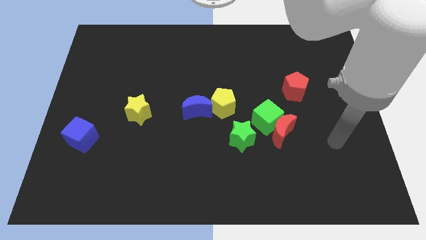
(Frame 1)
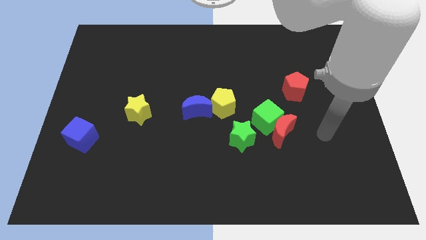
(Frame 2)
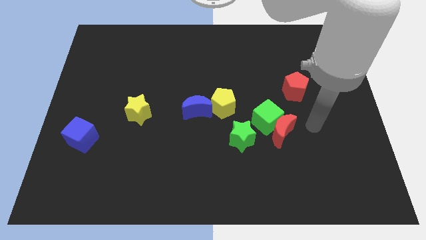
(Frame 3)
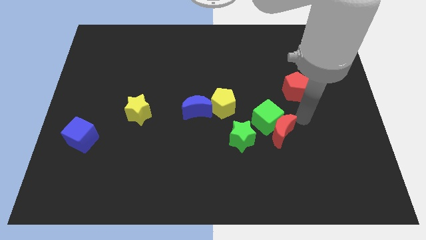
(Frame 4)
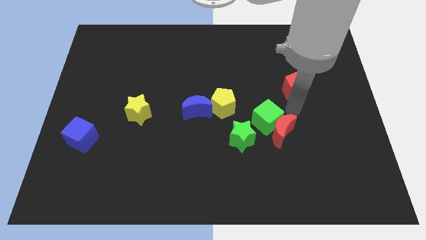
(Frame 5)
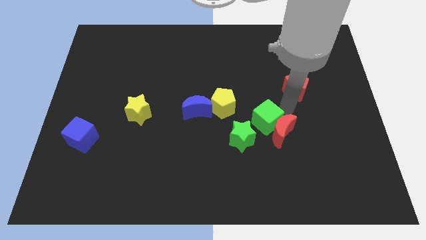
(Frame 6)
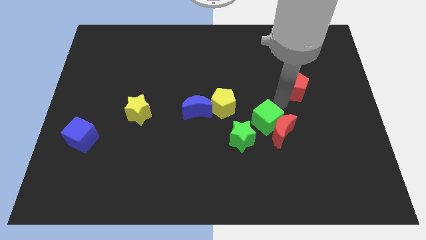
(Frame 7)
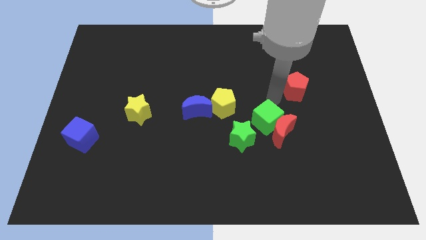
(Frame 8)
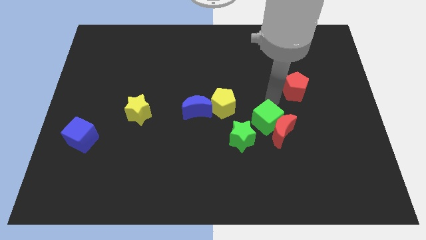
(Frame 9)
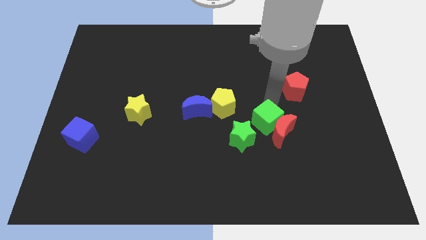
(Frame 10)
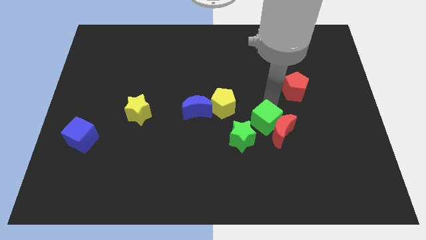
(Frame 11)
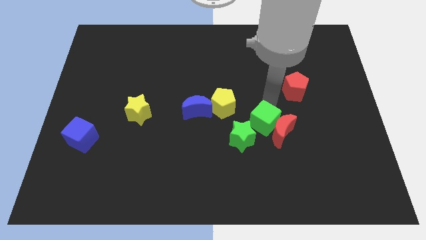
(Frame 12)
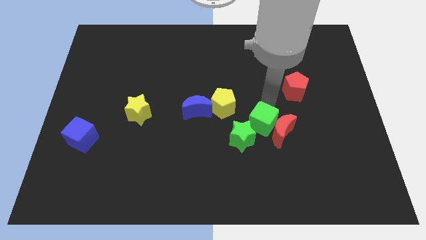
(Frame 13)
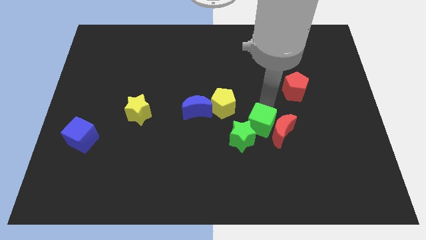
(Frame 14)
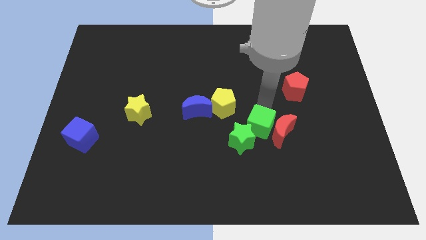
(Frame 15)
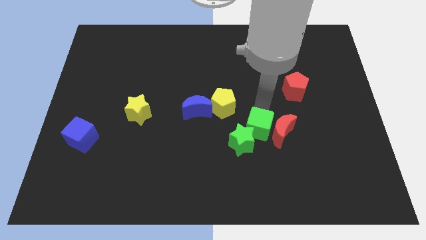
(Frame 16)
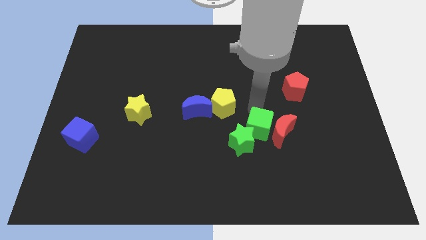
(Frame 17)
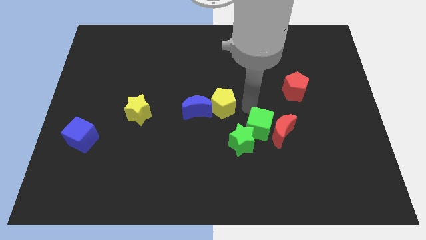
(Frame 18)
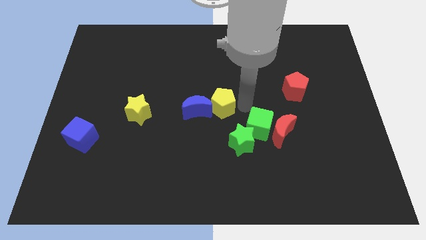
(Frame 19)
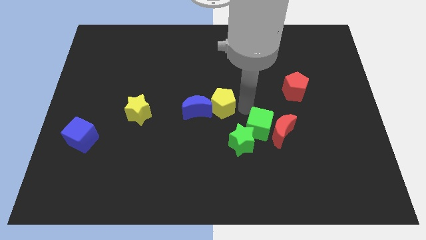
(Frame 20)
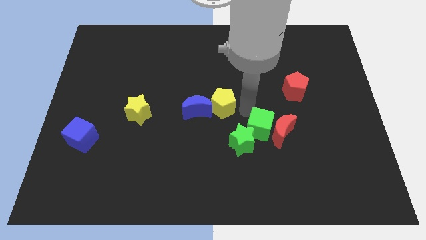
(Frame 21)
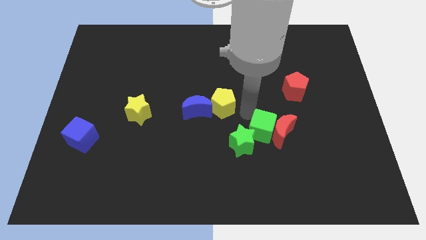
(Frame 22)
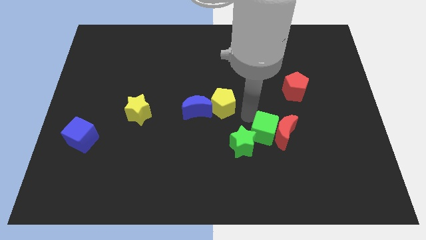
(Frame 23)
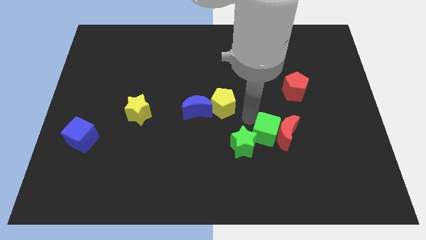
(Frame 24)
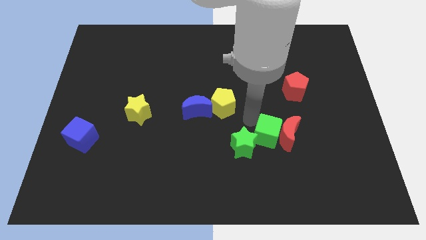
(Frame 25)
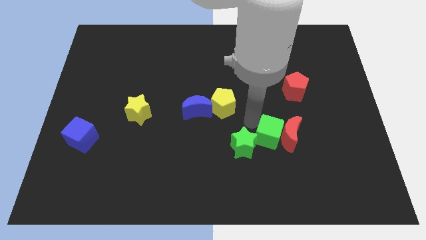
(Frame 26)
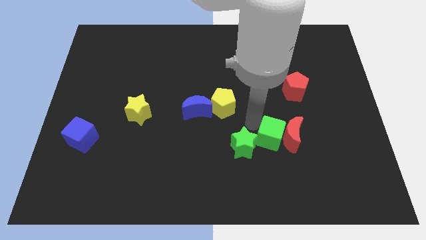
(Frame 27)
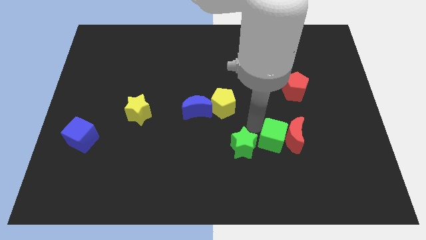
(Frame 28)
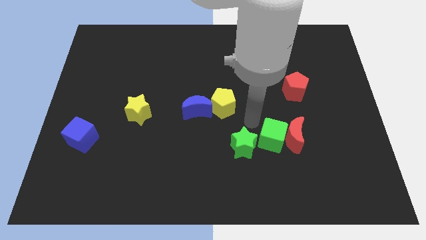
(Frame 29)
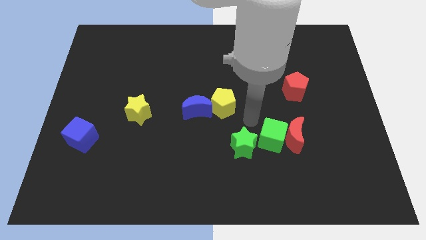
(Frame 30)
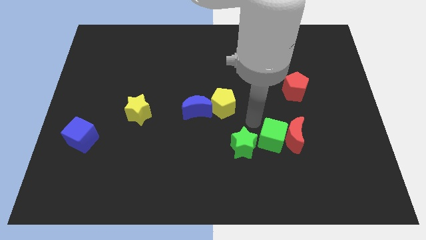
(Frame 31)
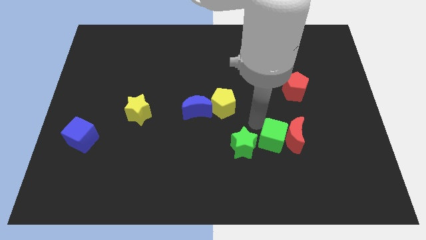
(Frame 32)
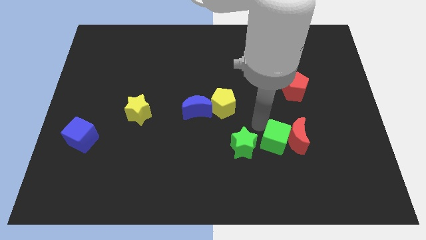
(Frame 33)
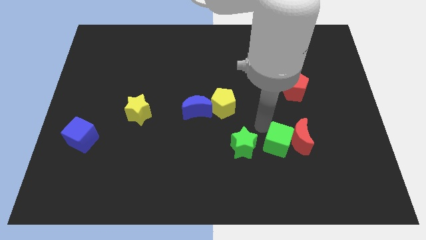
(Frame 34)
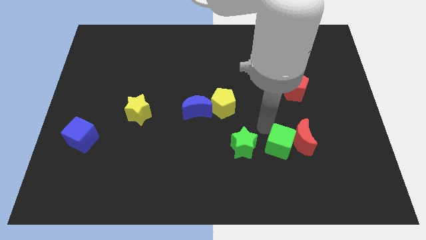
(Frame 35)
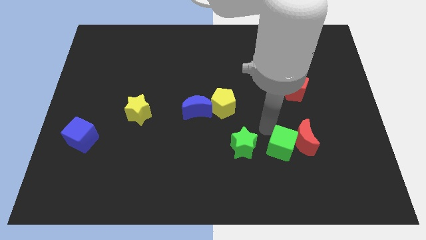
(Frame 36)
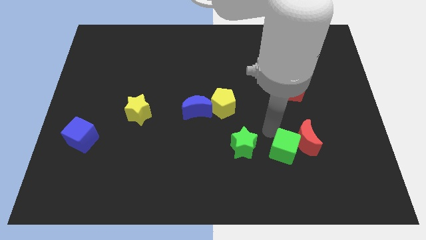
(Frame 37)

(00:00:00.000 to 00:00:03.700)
move the green cube downwards and right somewhat

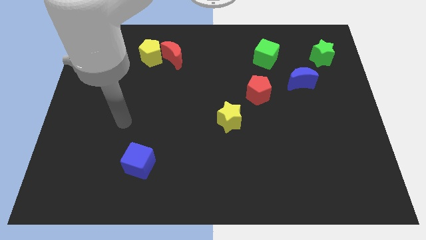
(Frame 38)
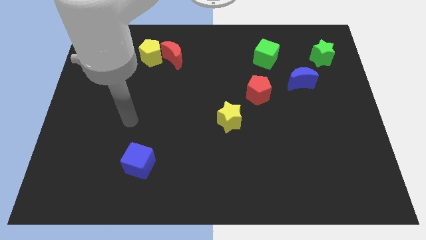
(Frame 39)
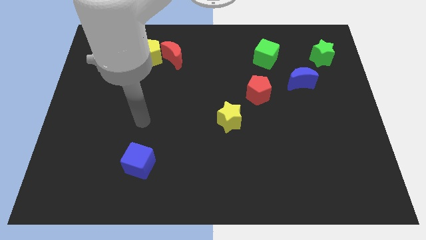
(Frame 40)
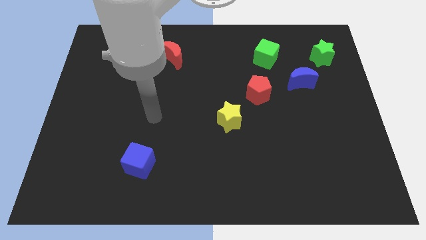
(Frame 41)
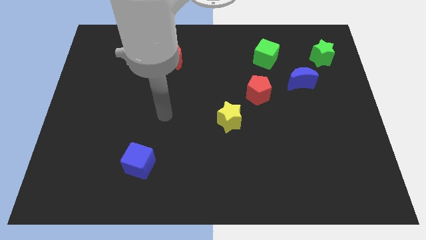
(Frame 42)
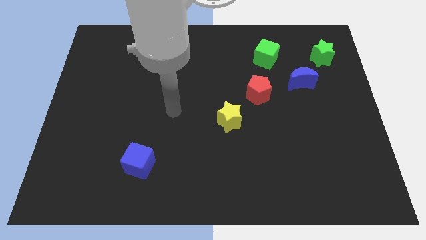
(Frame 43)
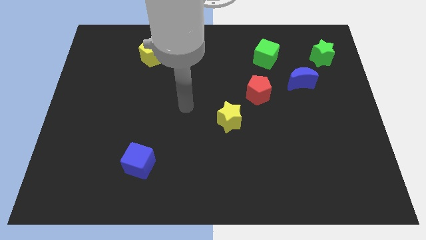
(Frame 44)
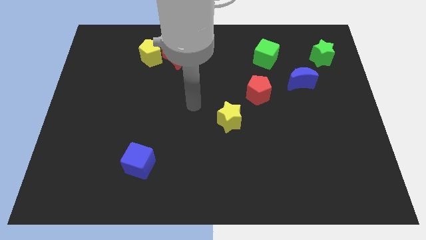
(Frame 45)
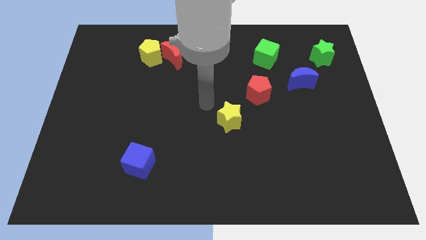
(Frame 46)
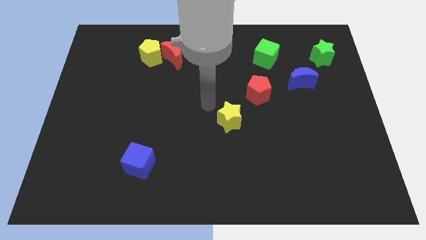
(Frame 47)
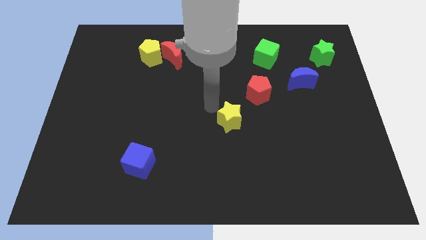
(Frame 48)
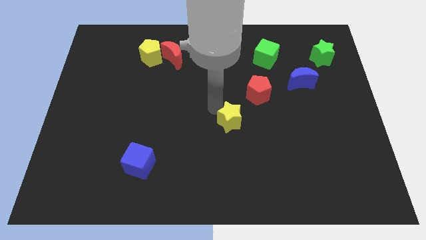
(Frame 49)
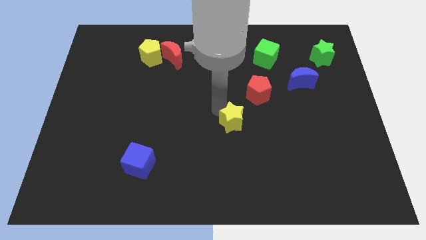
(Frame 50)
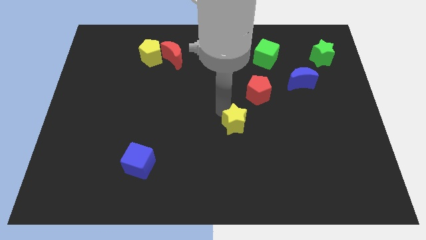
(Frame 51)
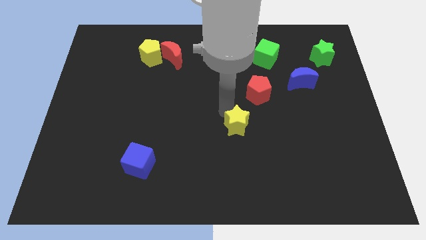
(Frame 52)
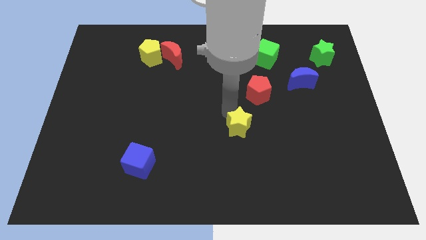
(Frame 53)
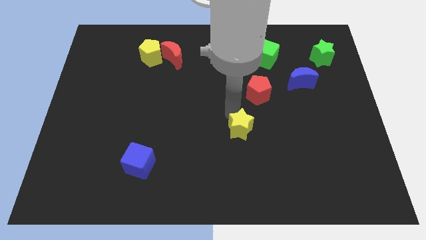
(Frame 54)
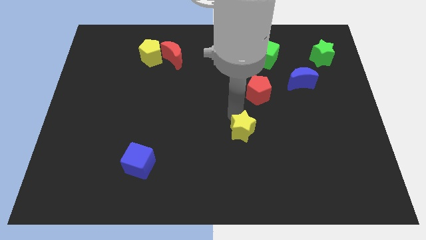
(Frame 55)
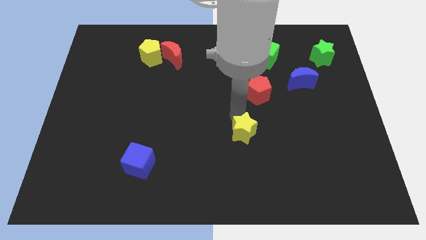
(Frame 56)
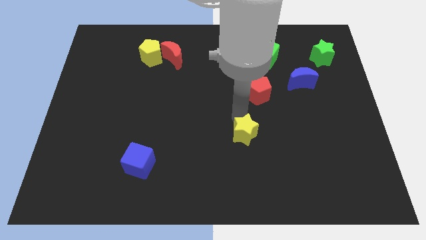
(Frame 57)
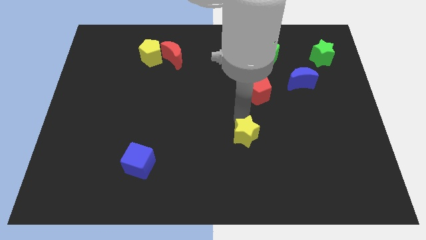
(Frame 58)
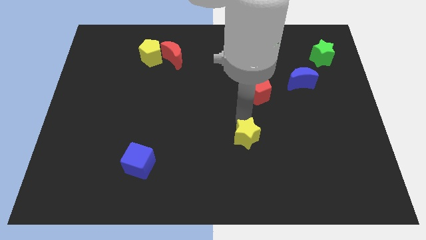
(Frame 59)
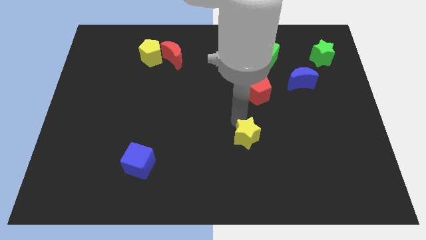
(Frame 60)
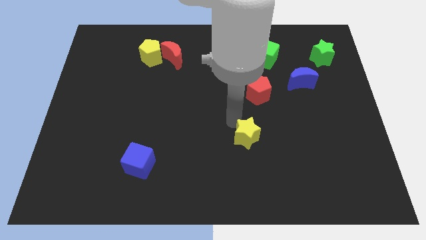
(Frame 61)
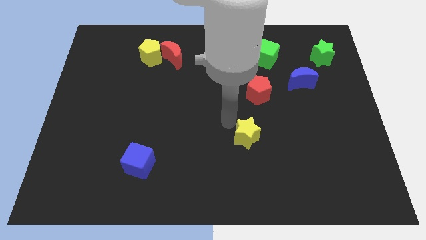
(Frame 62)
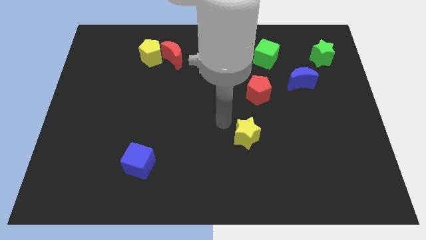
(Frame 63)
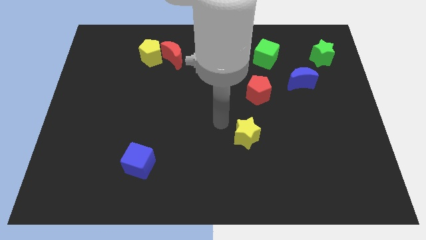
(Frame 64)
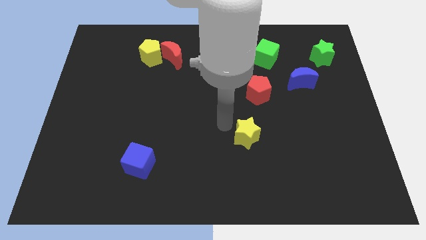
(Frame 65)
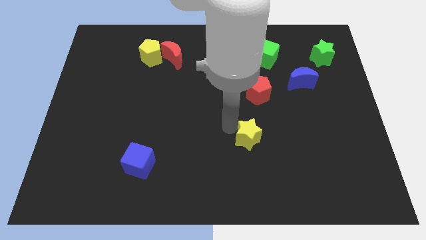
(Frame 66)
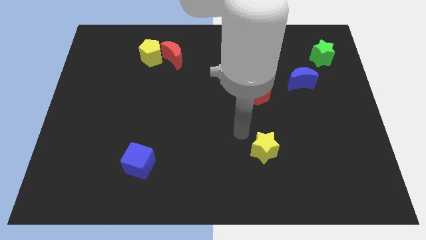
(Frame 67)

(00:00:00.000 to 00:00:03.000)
slightly push the yellow star down and then right

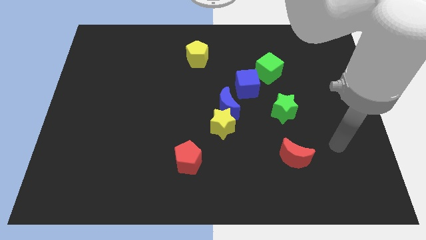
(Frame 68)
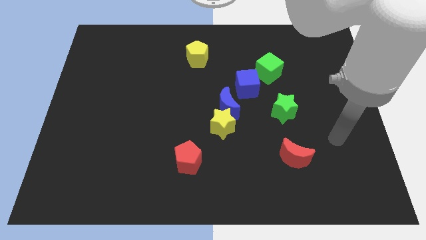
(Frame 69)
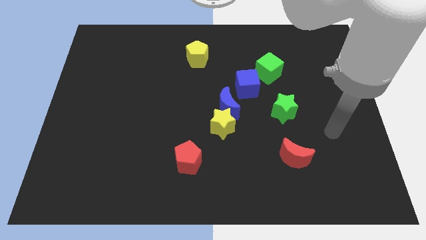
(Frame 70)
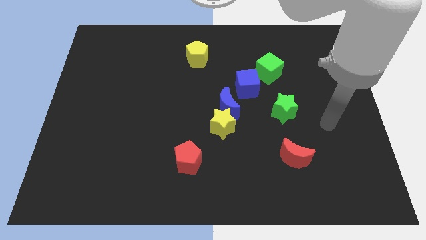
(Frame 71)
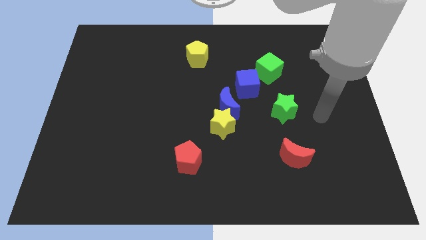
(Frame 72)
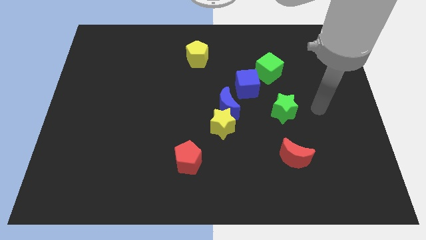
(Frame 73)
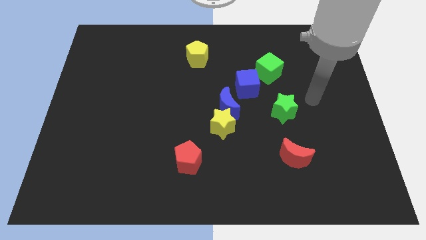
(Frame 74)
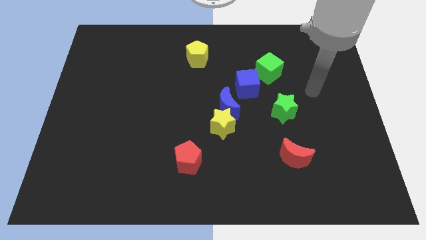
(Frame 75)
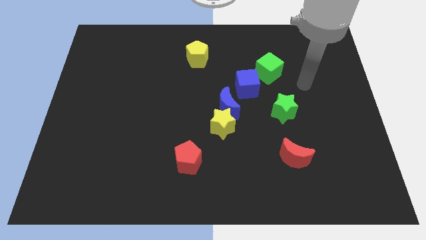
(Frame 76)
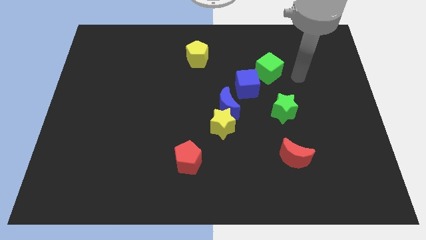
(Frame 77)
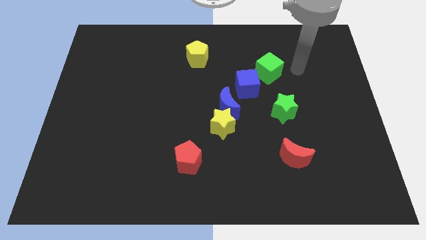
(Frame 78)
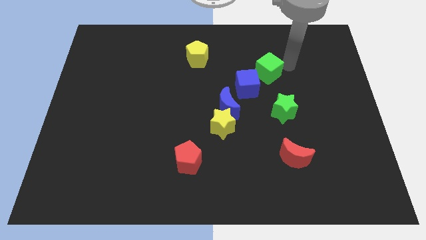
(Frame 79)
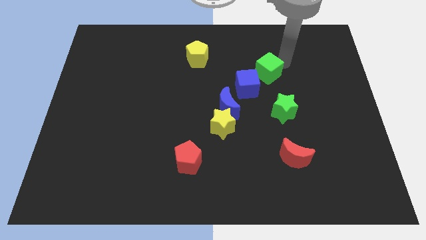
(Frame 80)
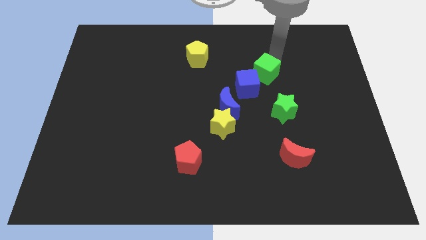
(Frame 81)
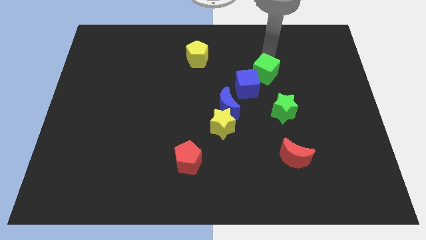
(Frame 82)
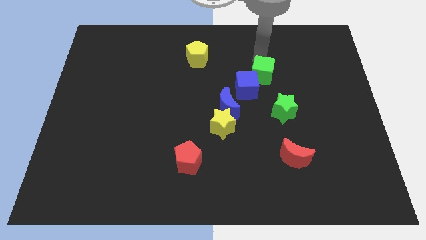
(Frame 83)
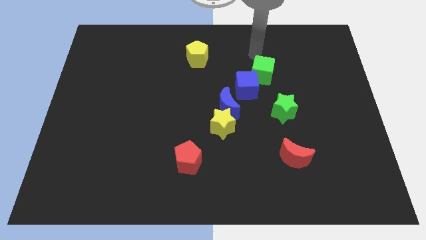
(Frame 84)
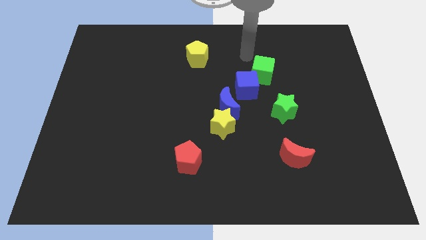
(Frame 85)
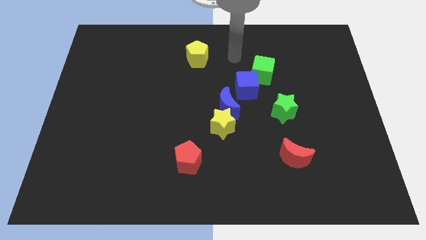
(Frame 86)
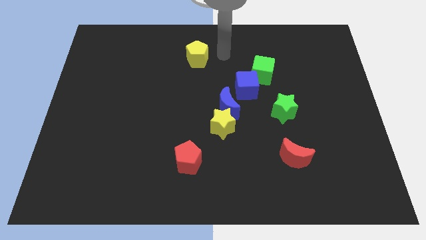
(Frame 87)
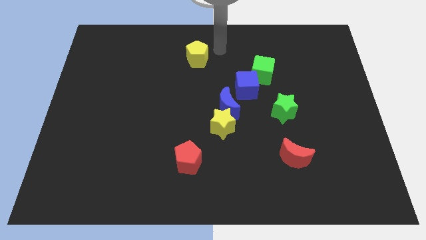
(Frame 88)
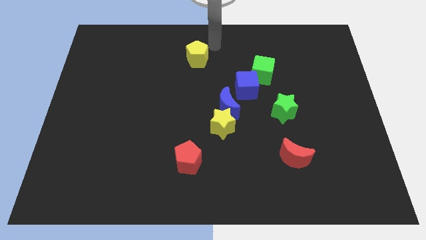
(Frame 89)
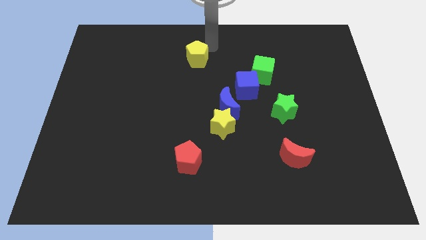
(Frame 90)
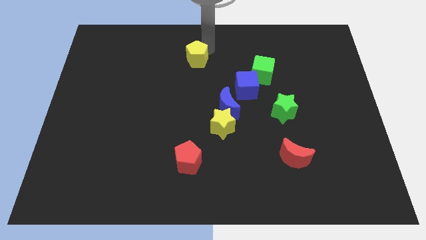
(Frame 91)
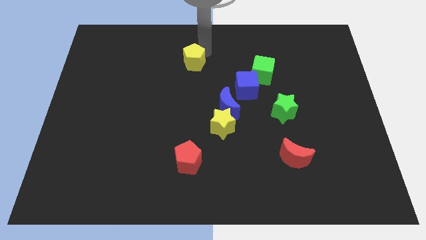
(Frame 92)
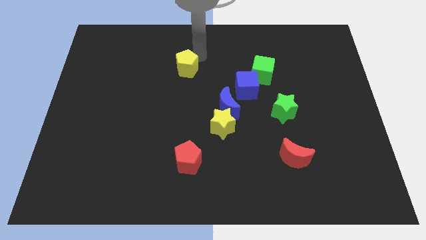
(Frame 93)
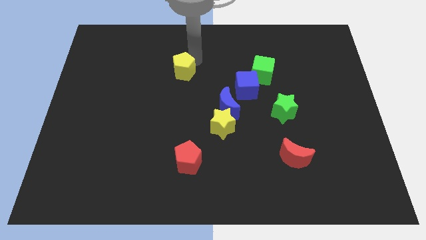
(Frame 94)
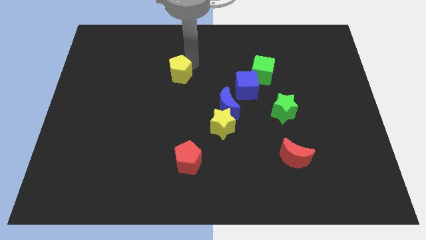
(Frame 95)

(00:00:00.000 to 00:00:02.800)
push the yellow pentagon a little bit diagonally downwards and to the left
